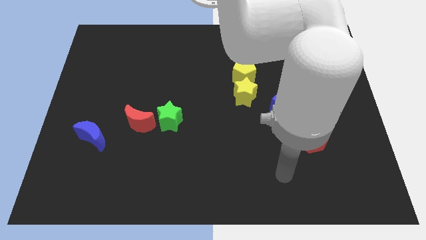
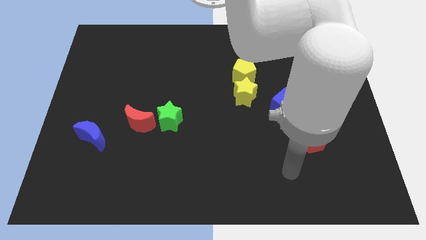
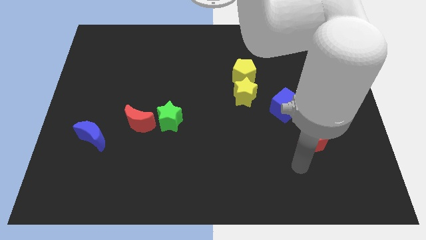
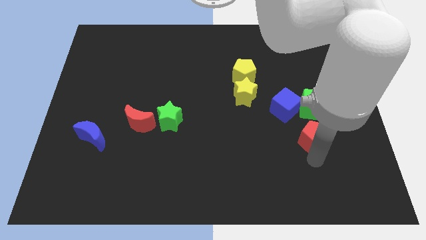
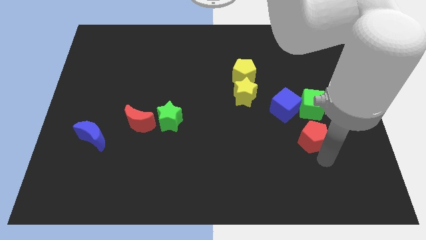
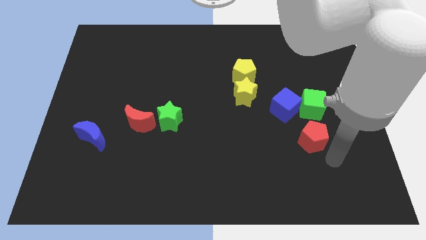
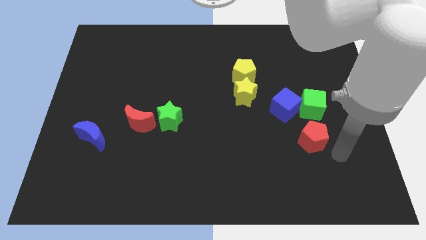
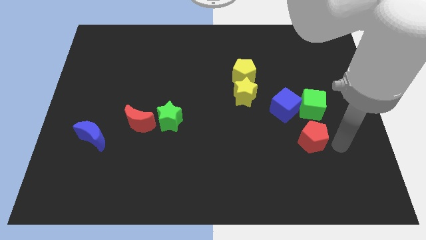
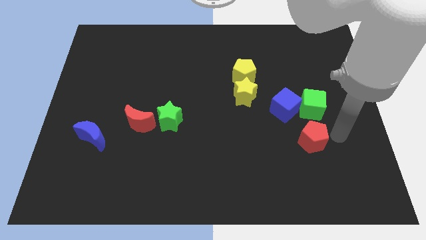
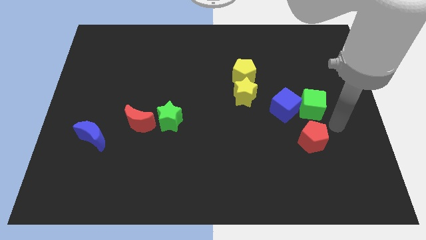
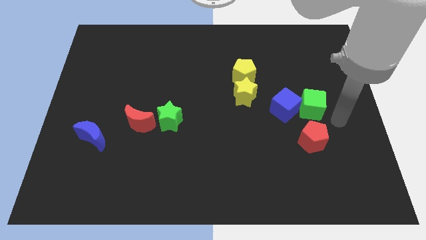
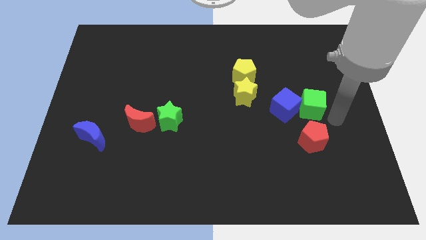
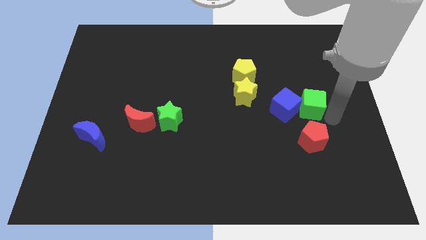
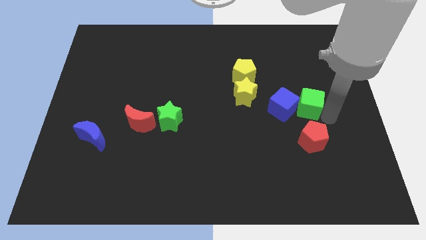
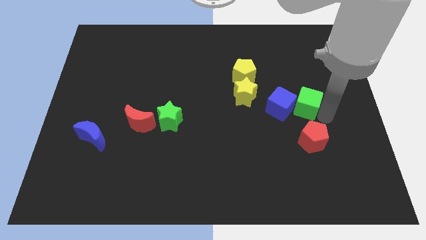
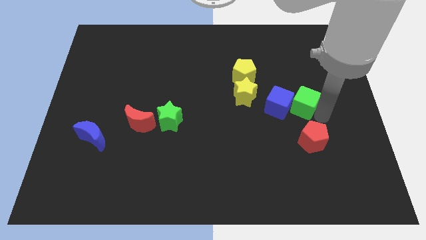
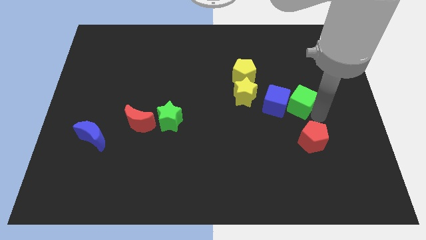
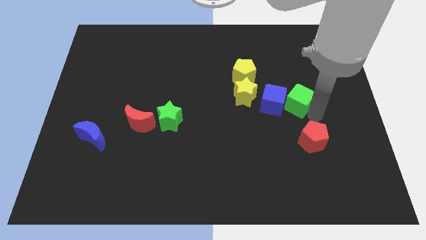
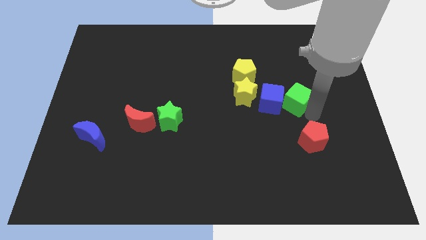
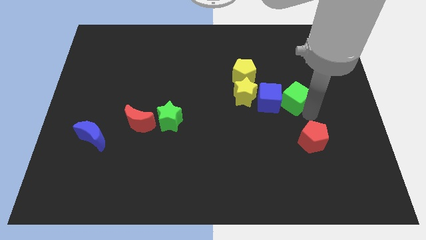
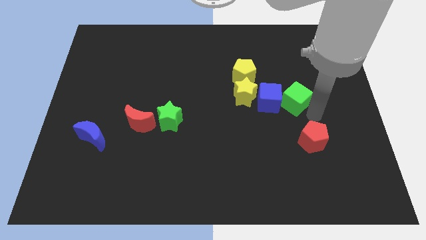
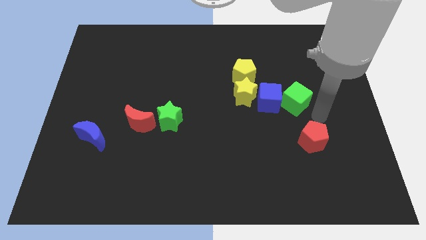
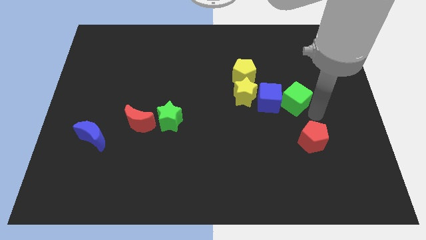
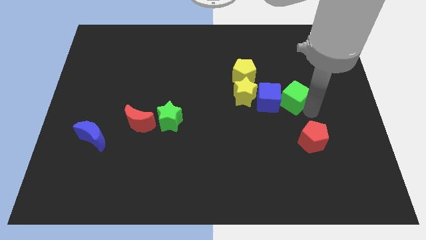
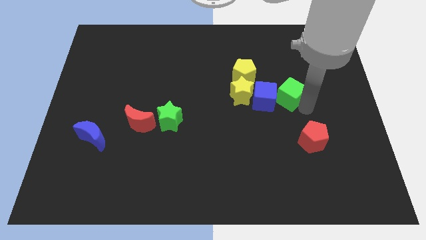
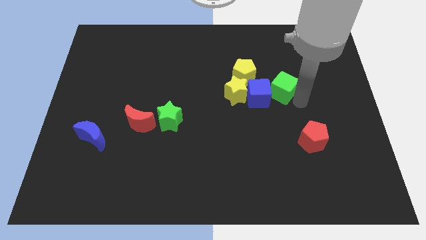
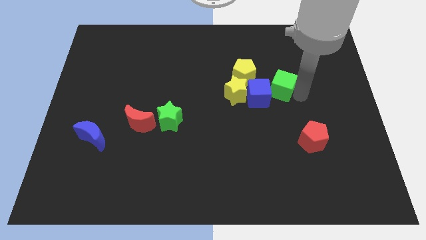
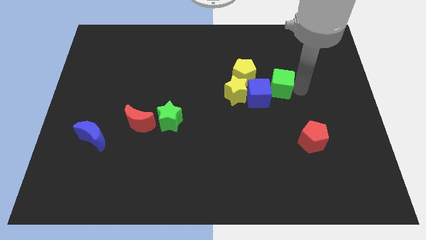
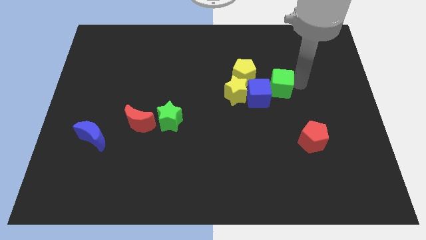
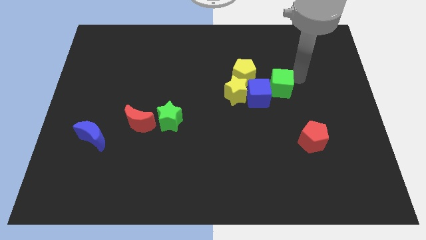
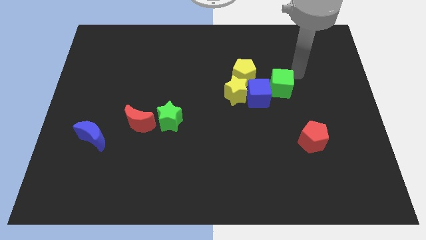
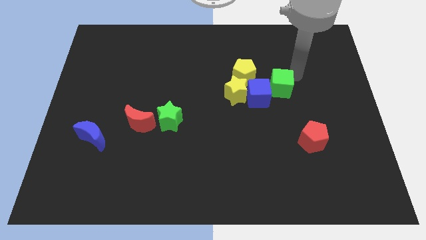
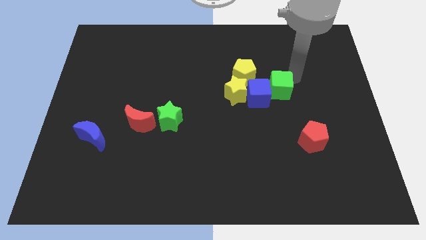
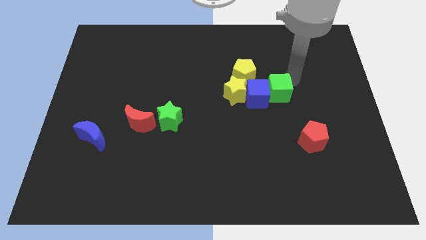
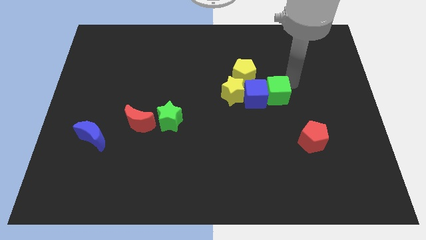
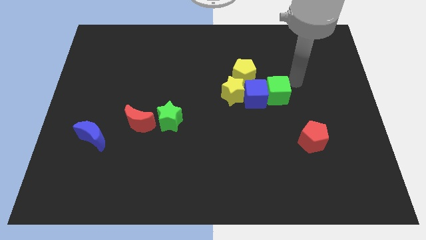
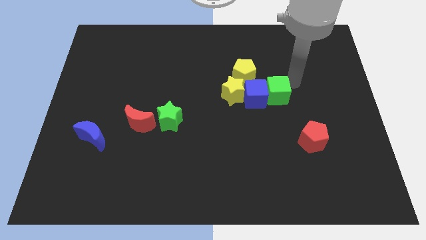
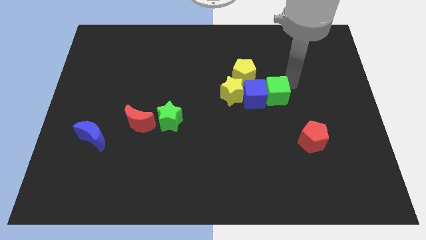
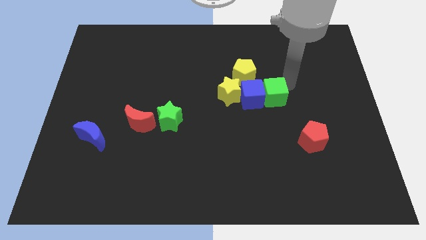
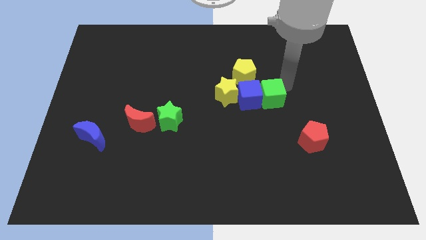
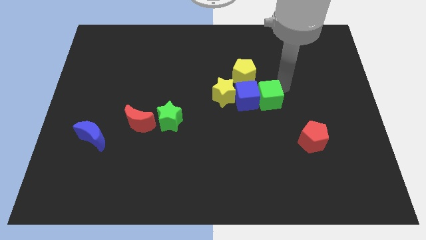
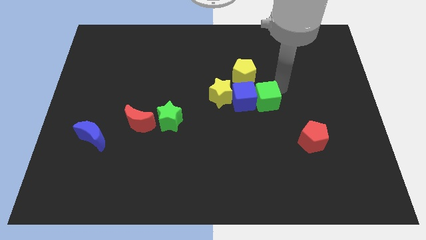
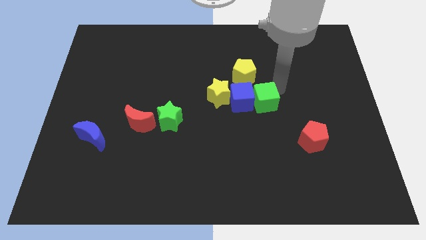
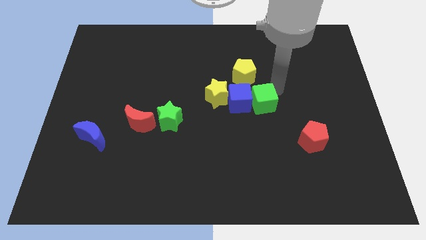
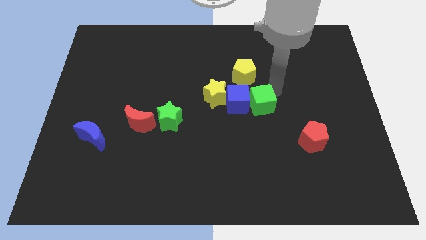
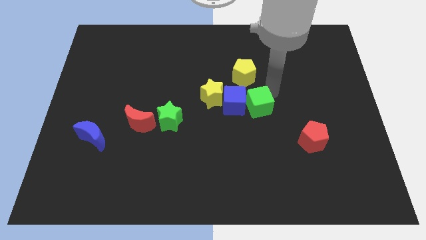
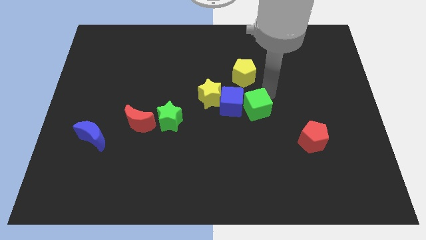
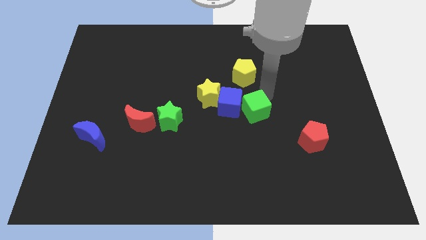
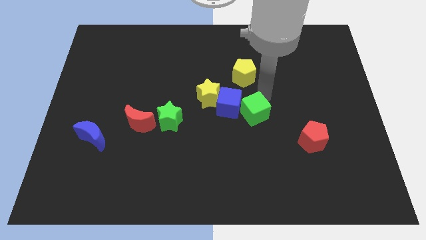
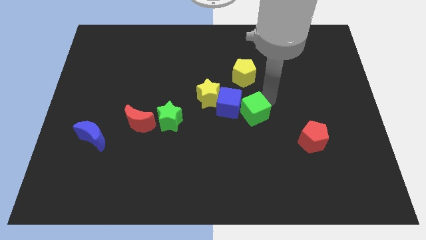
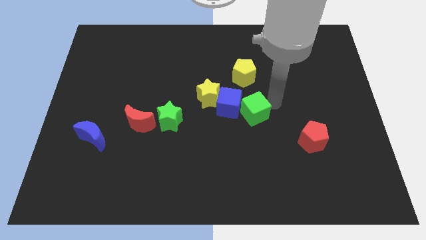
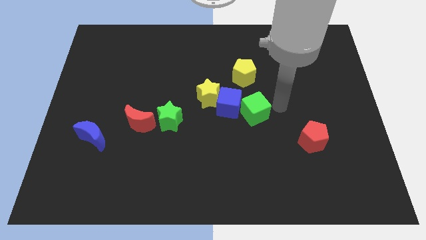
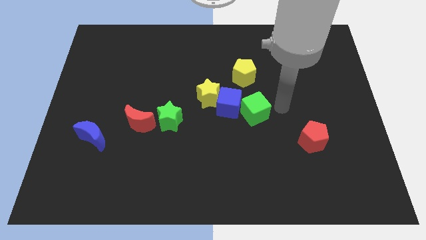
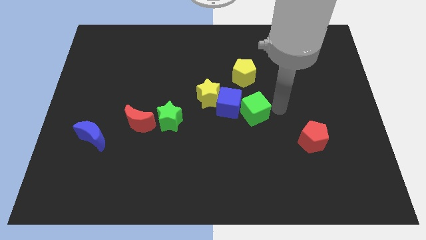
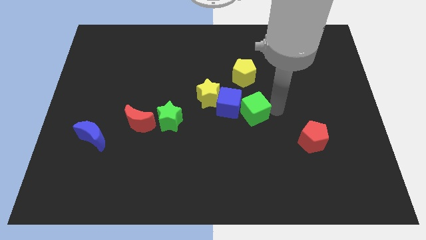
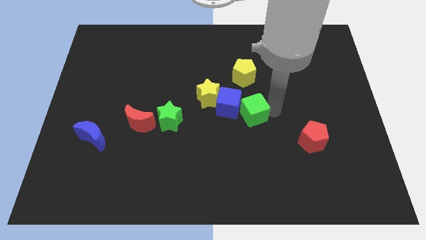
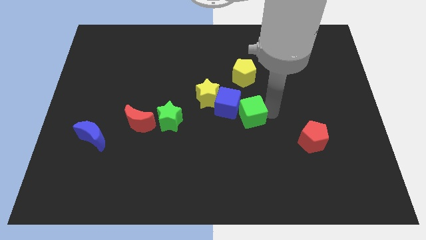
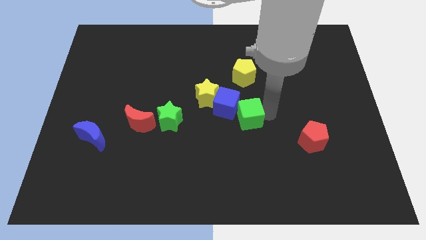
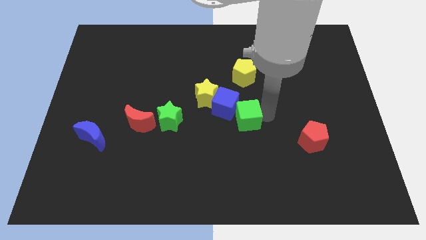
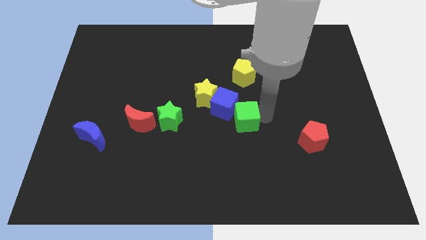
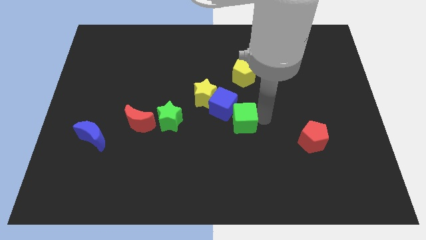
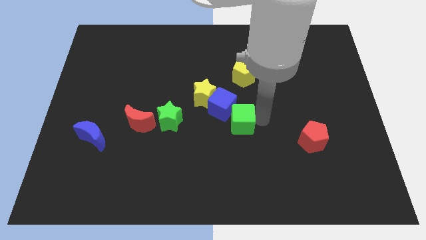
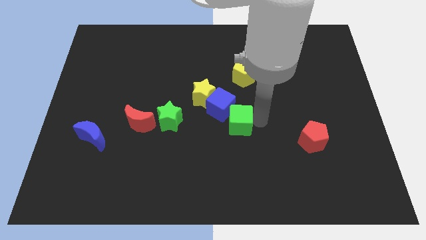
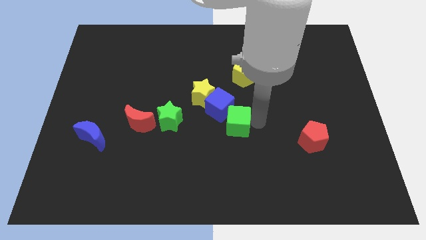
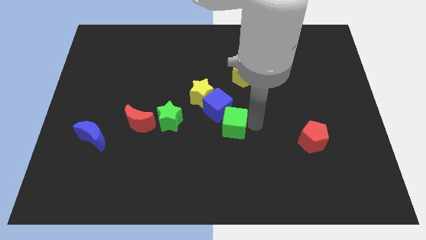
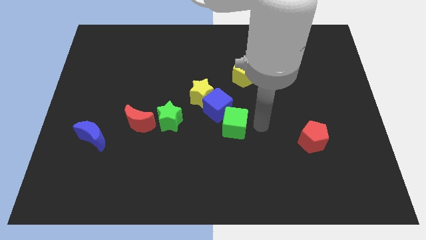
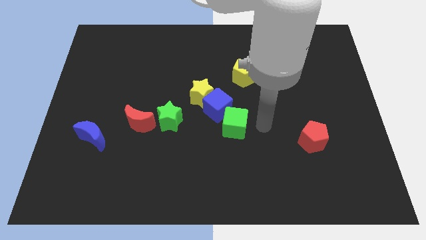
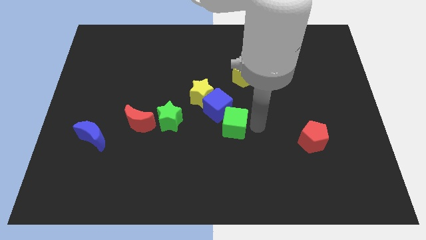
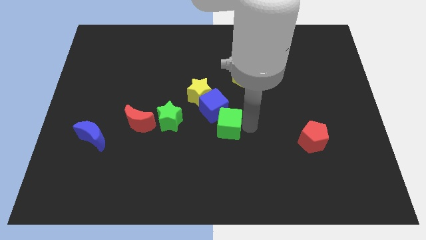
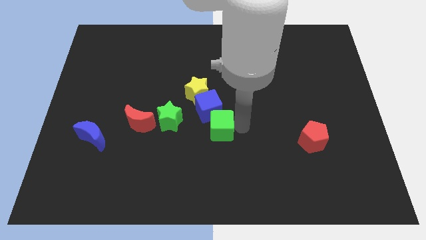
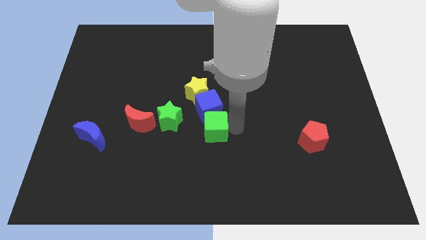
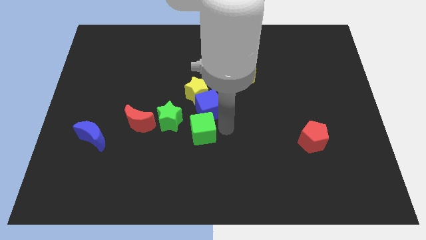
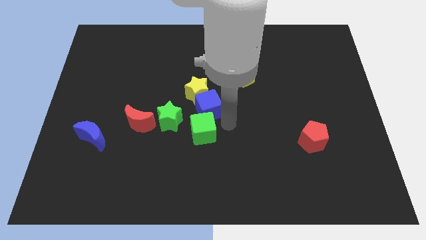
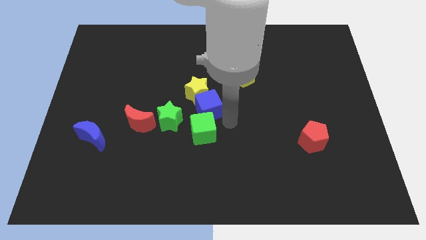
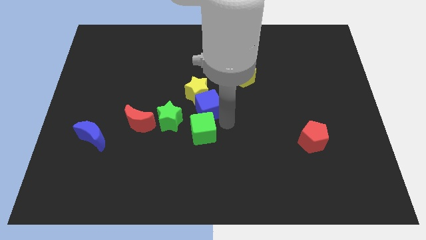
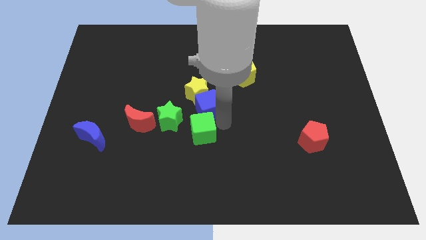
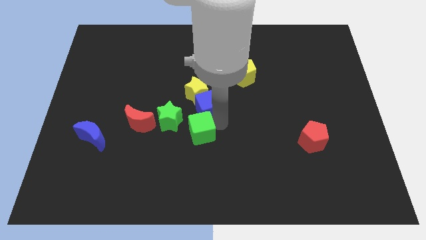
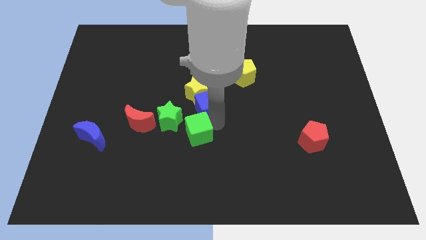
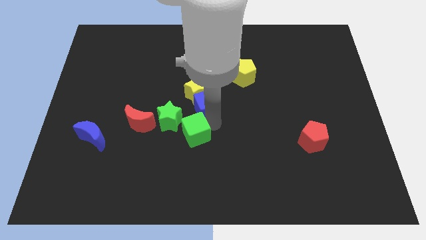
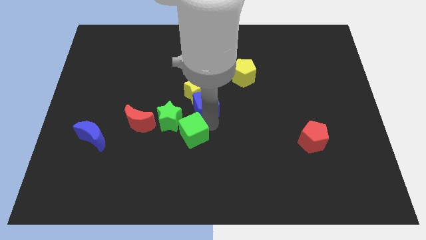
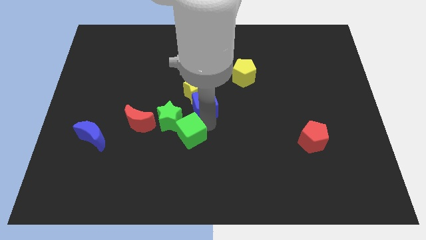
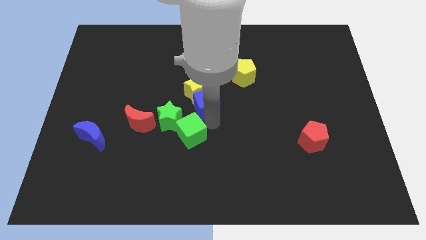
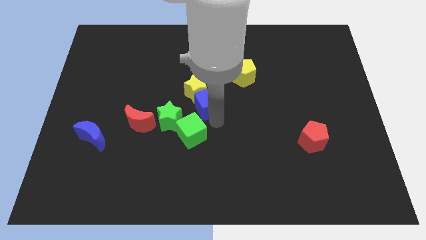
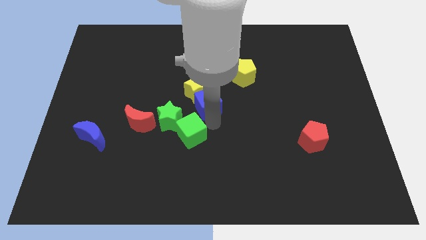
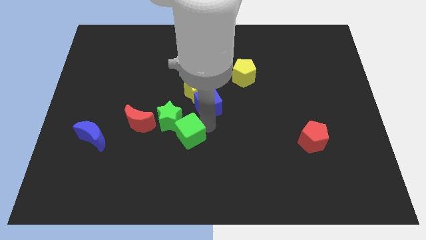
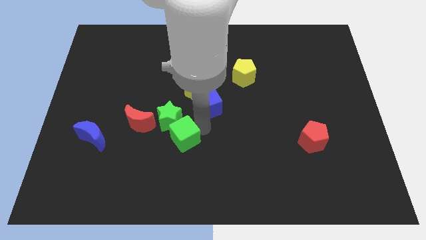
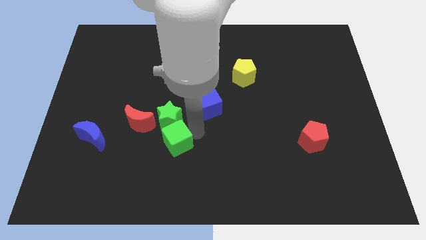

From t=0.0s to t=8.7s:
put the green cube to the bottom right of the red moon
